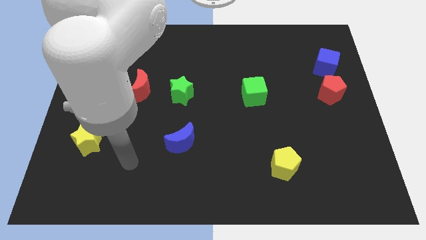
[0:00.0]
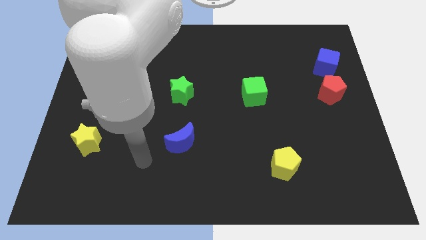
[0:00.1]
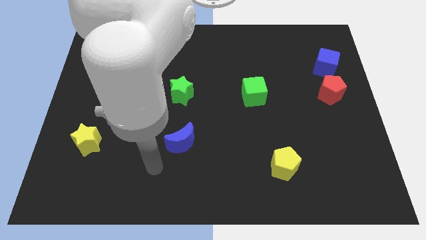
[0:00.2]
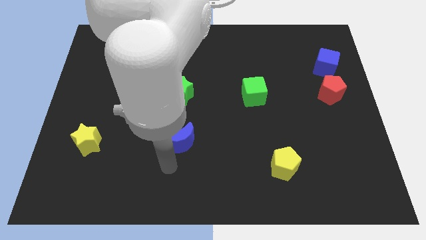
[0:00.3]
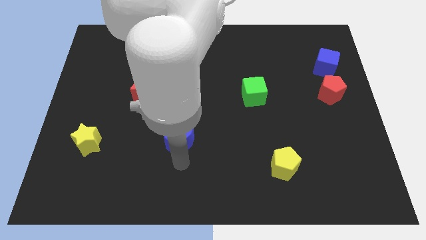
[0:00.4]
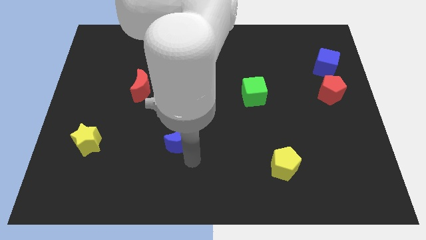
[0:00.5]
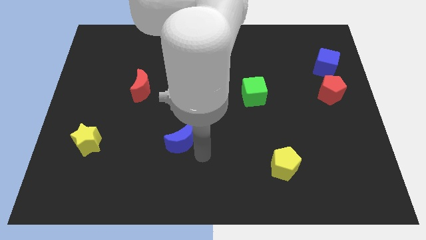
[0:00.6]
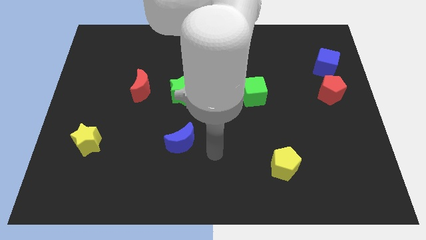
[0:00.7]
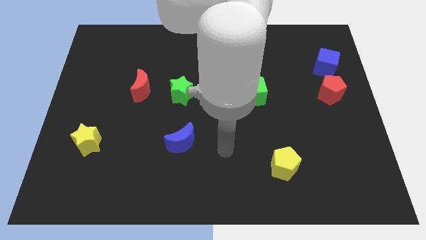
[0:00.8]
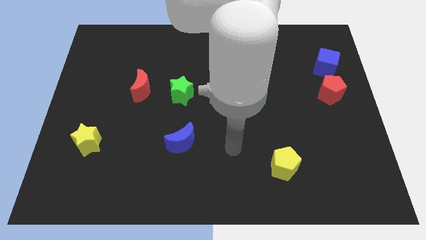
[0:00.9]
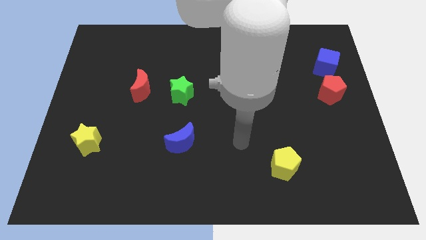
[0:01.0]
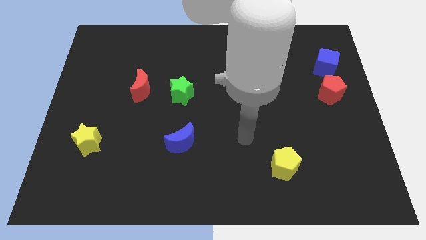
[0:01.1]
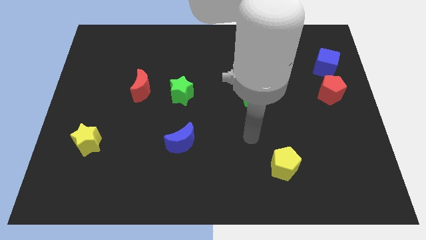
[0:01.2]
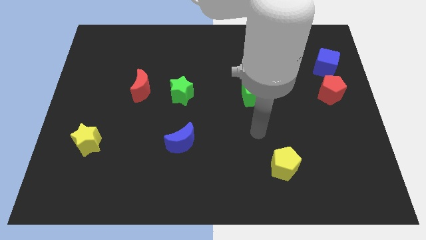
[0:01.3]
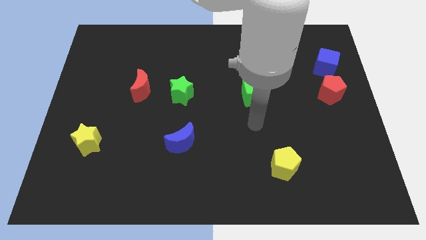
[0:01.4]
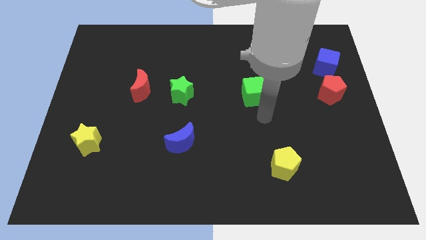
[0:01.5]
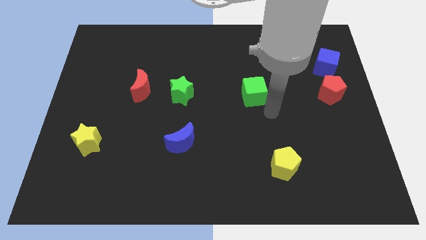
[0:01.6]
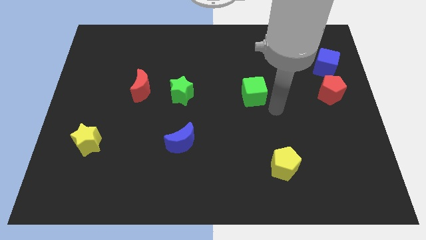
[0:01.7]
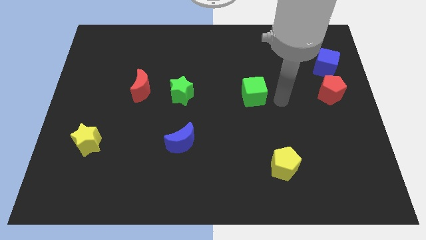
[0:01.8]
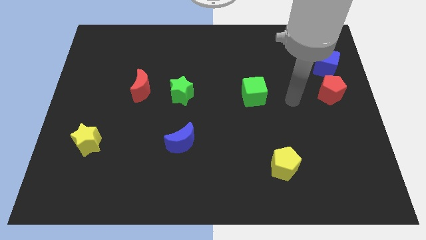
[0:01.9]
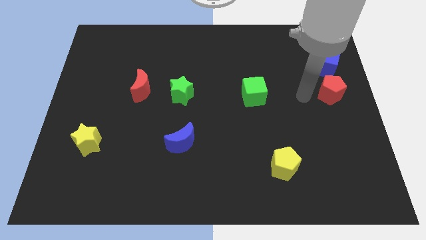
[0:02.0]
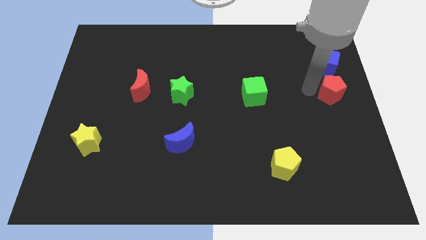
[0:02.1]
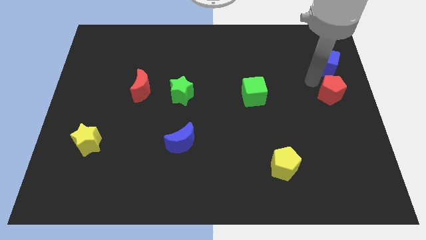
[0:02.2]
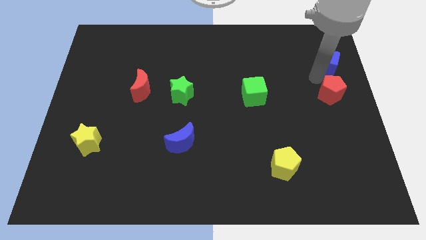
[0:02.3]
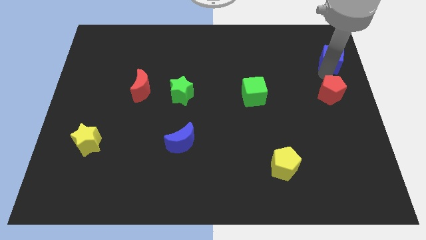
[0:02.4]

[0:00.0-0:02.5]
separate the red pentagon from the blue cube

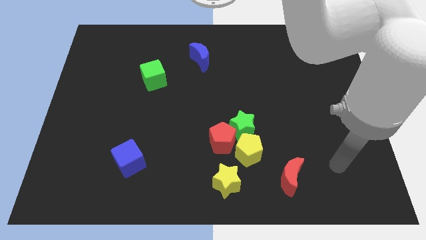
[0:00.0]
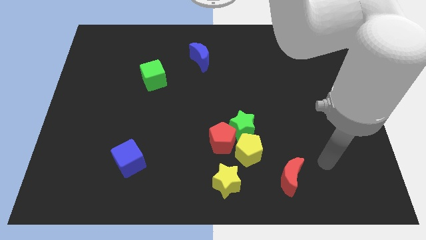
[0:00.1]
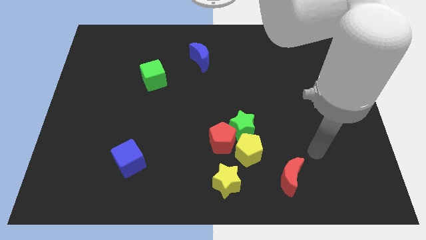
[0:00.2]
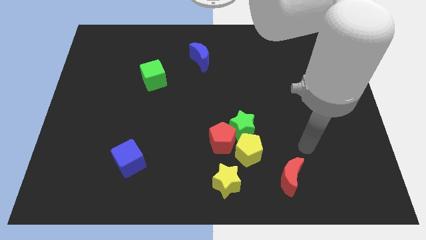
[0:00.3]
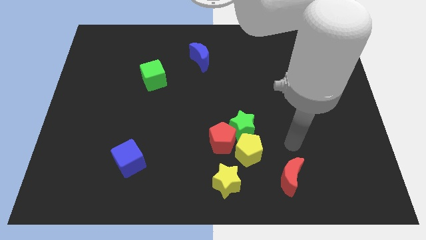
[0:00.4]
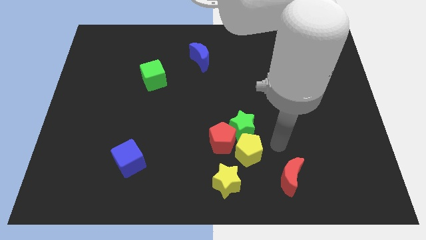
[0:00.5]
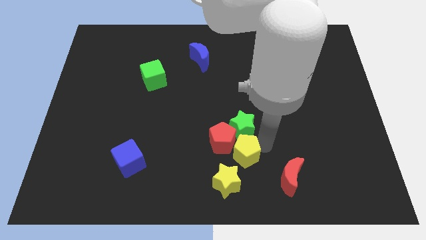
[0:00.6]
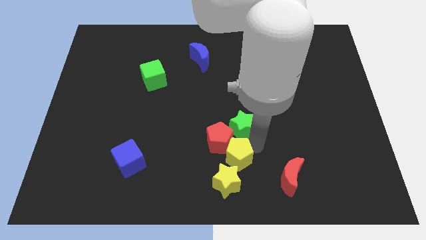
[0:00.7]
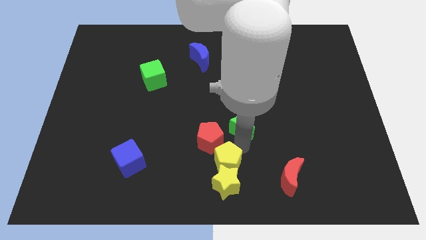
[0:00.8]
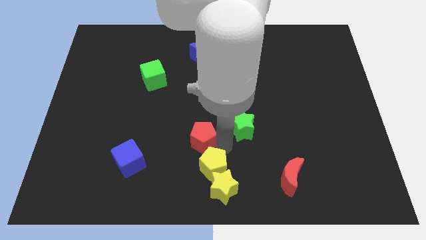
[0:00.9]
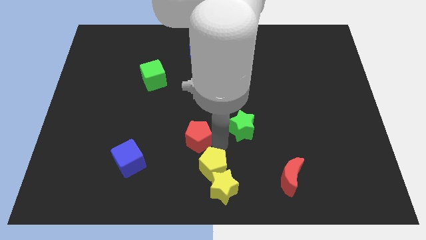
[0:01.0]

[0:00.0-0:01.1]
move the green star away from the red pentagon and yellow pentagon

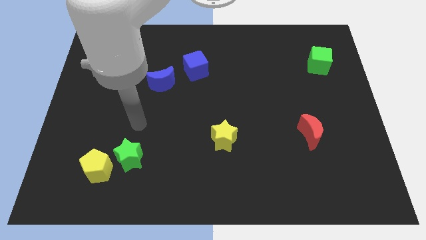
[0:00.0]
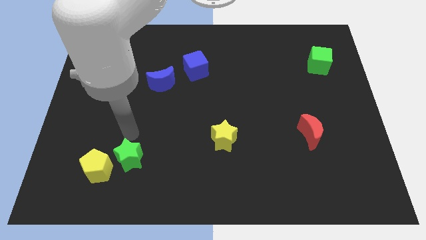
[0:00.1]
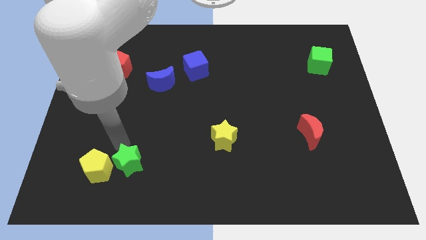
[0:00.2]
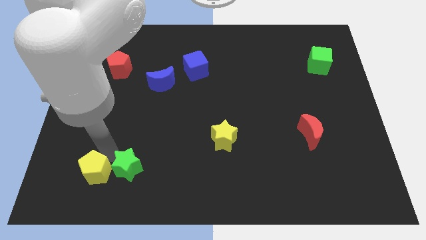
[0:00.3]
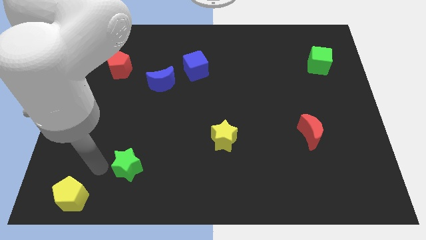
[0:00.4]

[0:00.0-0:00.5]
move the green star away from the yellow pentagon

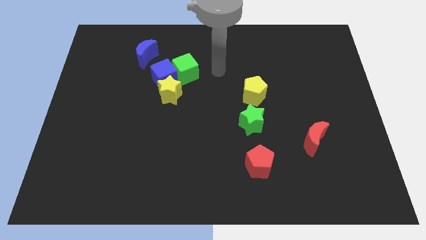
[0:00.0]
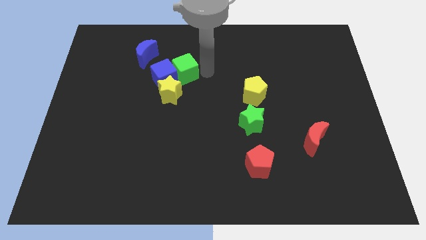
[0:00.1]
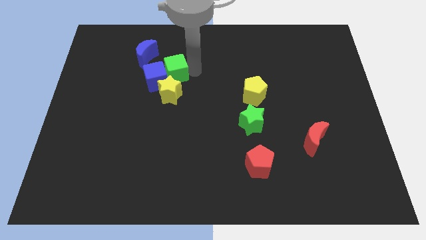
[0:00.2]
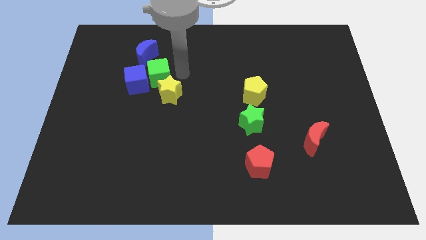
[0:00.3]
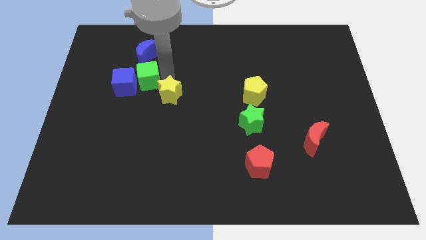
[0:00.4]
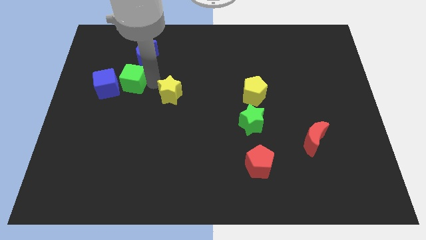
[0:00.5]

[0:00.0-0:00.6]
pull the yellow star apart from the blue cube and green cube

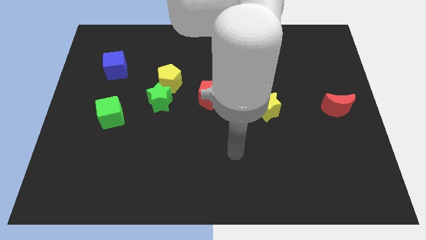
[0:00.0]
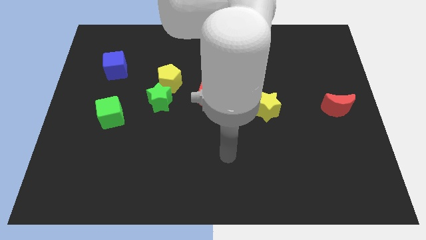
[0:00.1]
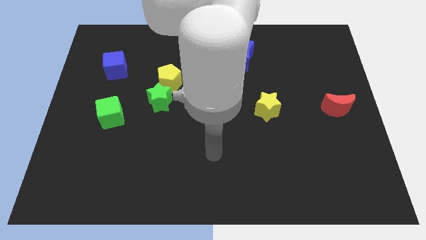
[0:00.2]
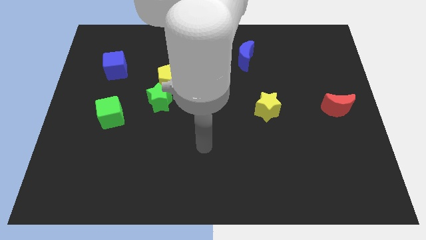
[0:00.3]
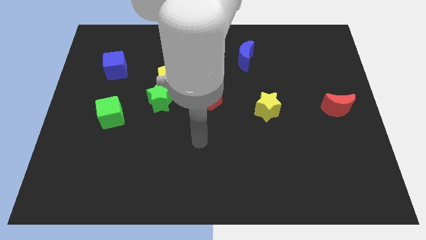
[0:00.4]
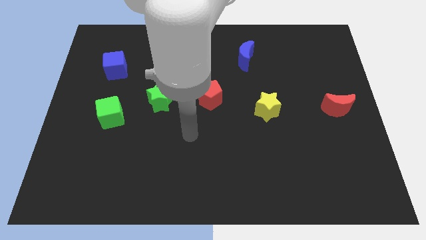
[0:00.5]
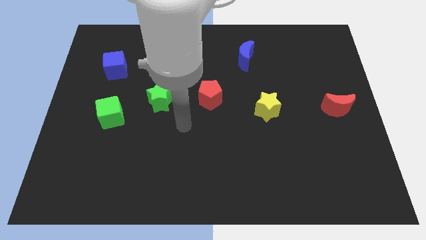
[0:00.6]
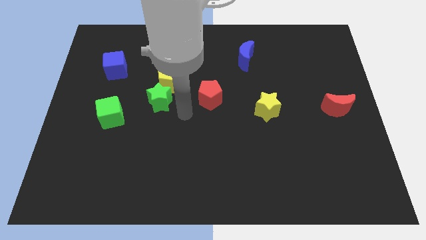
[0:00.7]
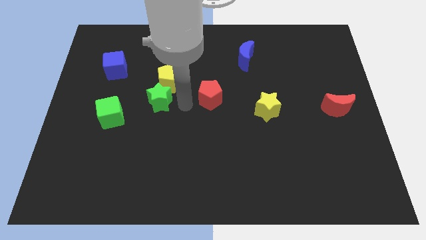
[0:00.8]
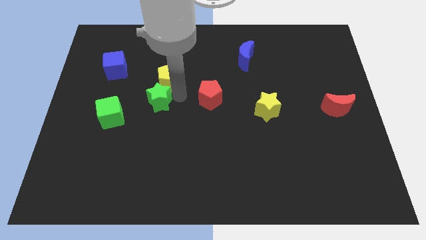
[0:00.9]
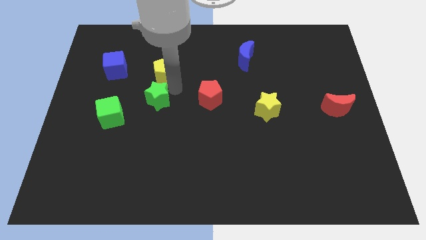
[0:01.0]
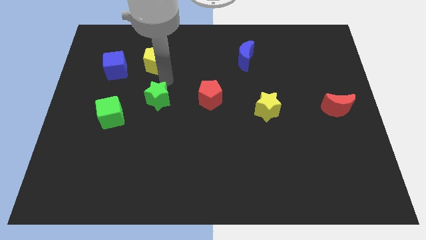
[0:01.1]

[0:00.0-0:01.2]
pull the green star apart from the yellow pentagon

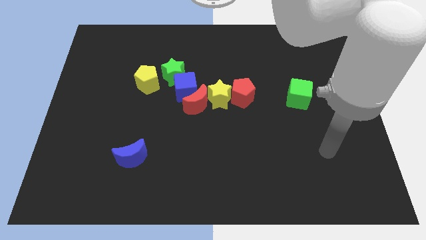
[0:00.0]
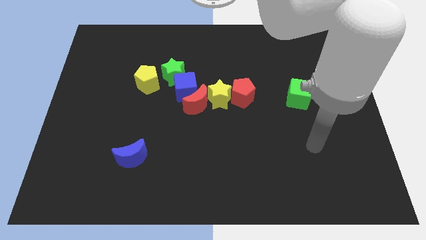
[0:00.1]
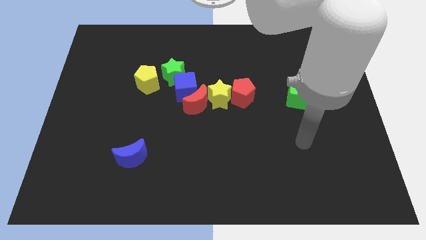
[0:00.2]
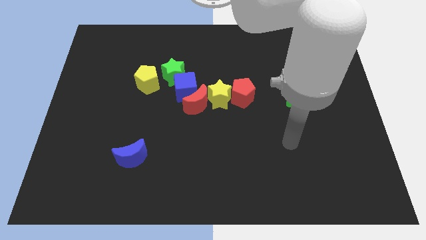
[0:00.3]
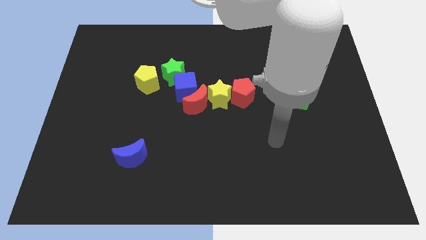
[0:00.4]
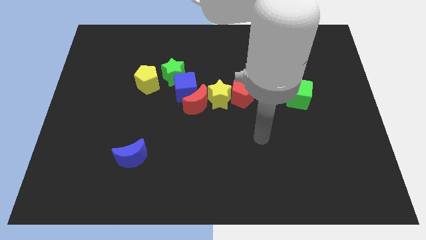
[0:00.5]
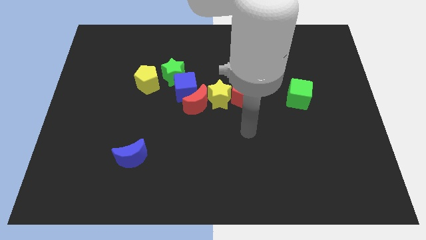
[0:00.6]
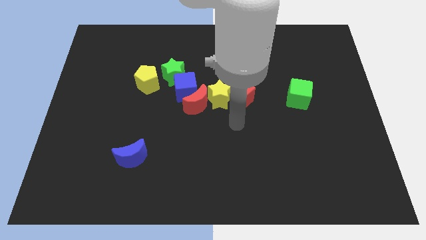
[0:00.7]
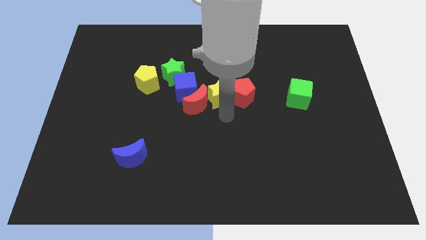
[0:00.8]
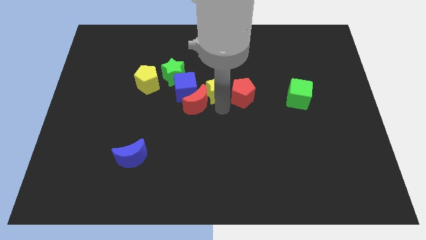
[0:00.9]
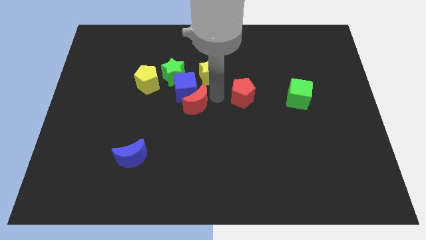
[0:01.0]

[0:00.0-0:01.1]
move the red pentagon away from the yellow star

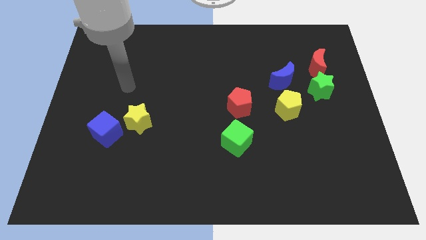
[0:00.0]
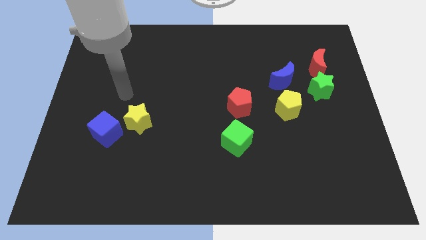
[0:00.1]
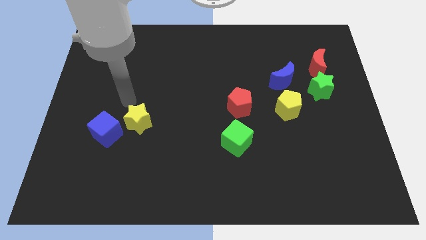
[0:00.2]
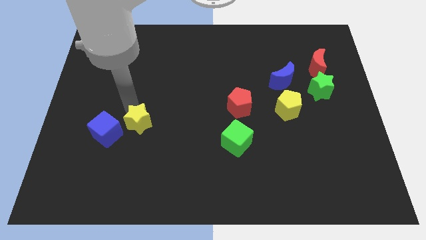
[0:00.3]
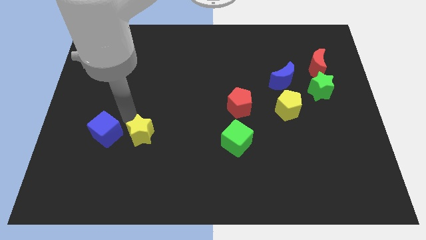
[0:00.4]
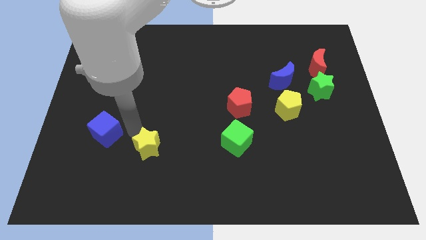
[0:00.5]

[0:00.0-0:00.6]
move the blue cube away from the yellow star

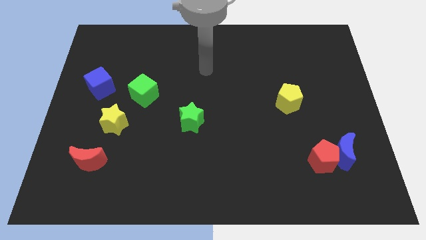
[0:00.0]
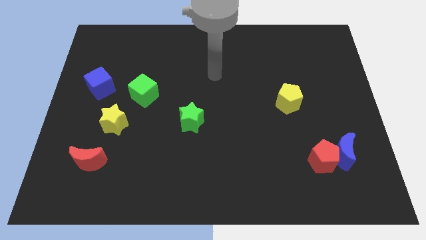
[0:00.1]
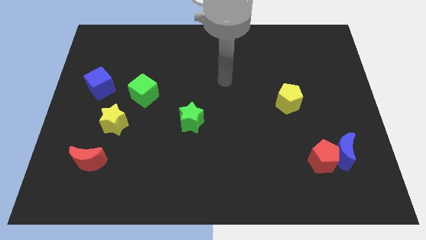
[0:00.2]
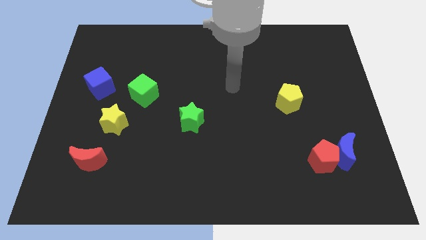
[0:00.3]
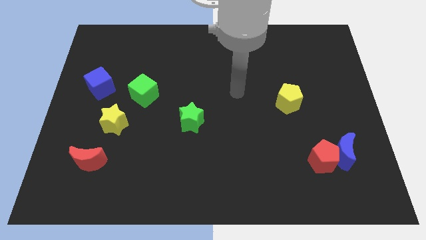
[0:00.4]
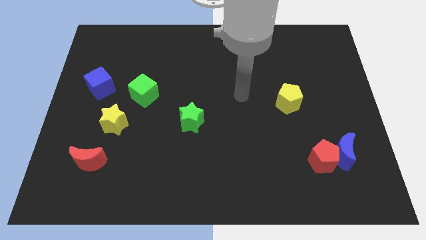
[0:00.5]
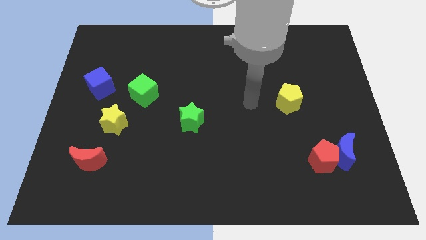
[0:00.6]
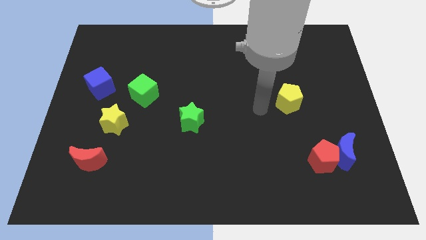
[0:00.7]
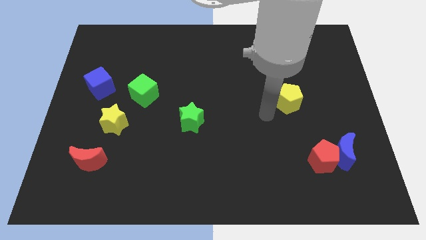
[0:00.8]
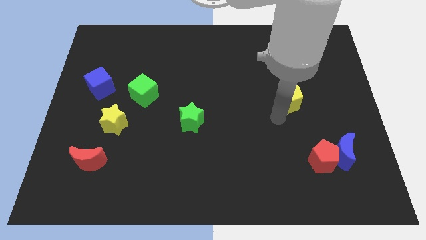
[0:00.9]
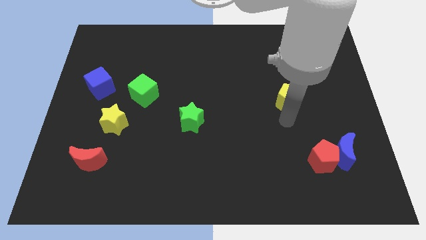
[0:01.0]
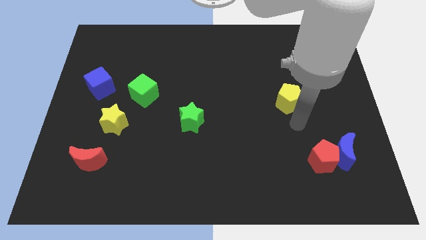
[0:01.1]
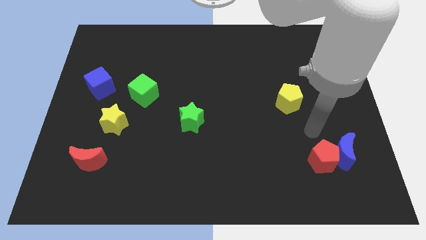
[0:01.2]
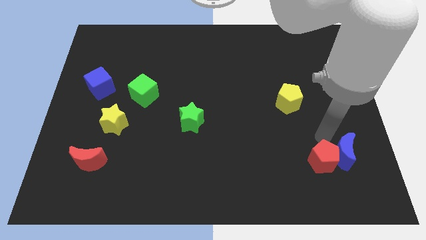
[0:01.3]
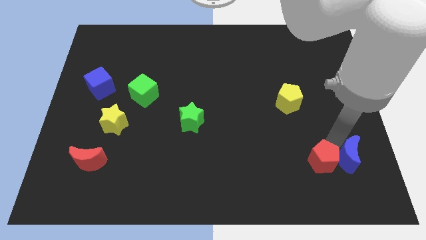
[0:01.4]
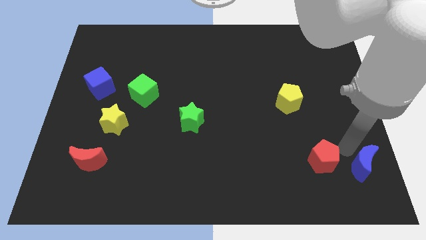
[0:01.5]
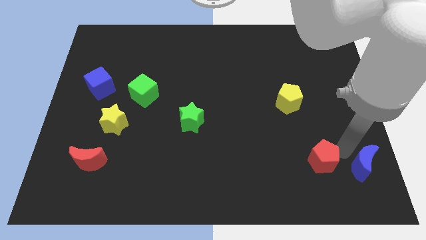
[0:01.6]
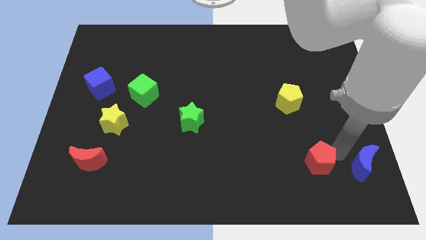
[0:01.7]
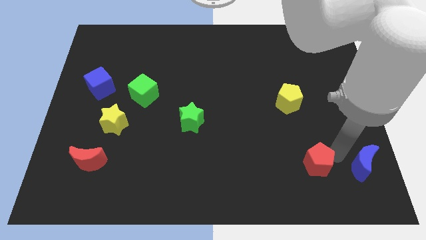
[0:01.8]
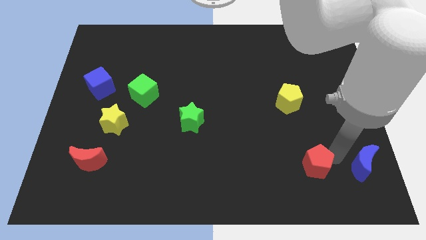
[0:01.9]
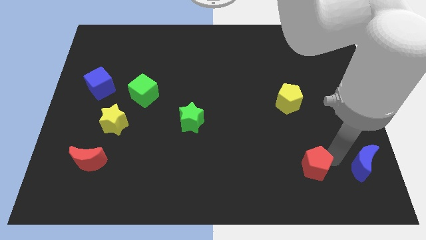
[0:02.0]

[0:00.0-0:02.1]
separate the red pentagon from the blue moon
